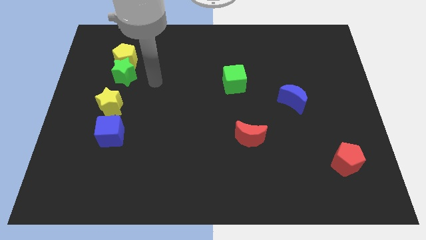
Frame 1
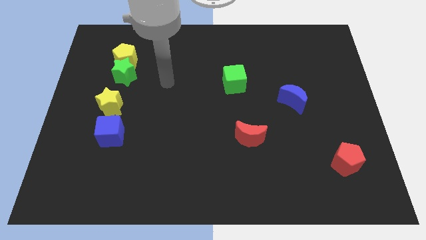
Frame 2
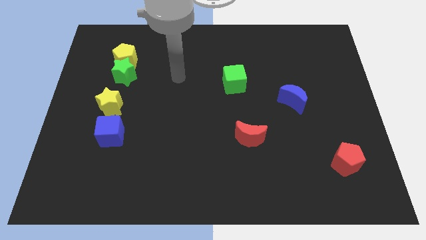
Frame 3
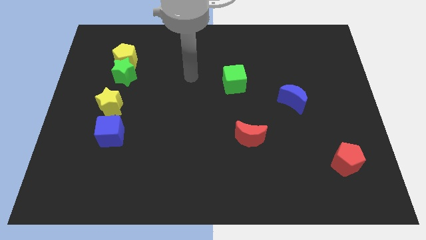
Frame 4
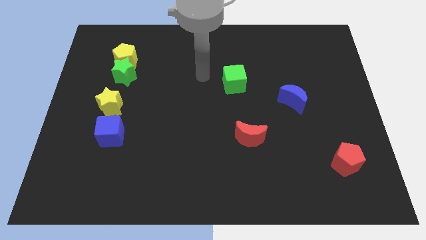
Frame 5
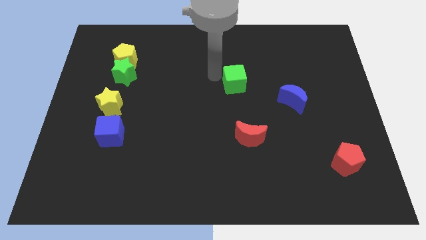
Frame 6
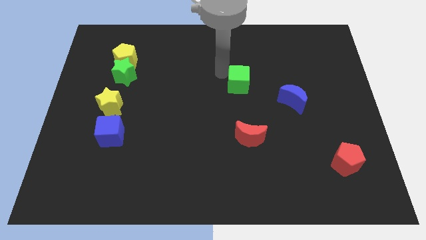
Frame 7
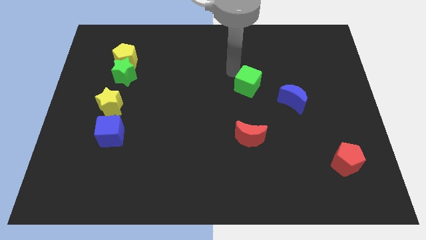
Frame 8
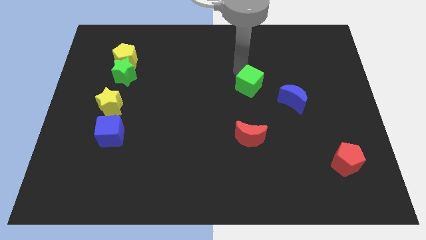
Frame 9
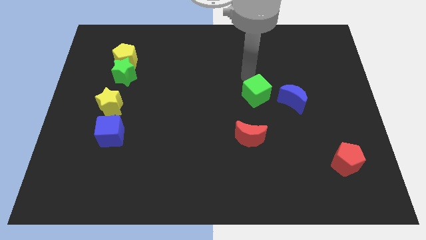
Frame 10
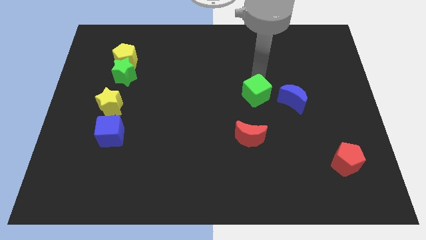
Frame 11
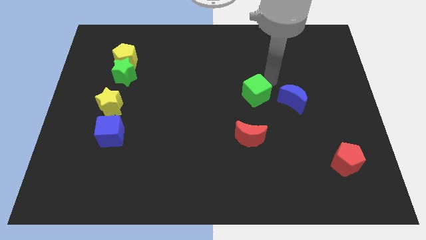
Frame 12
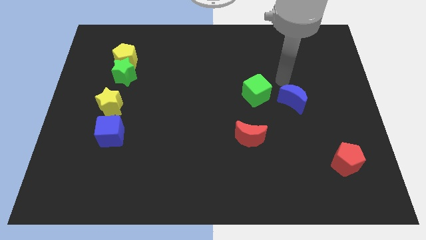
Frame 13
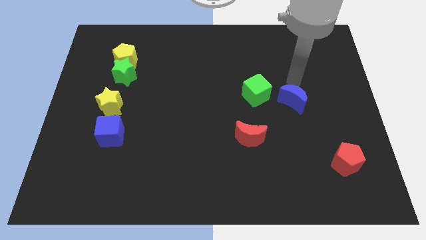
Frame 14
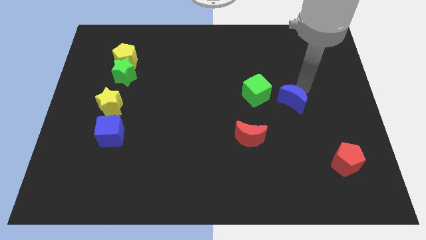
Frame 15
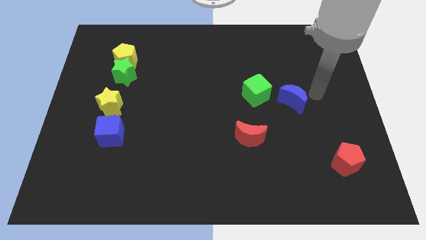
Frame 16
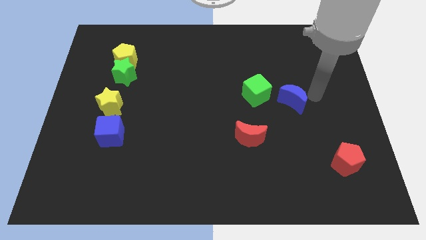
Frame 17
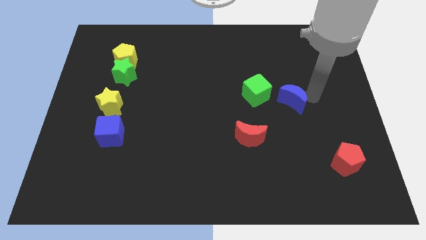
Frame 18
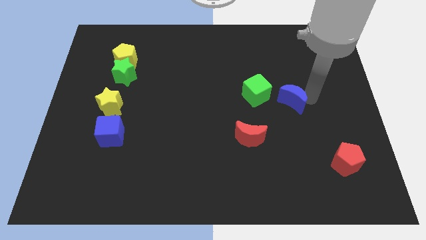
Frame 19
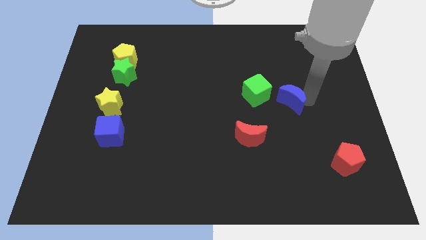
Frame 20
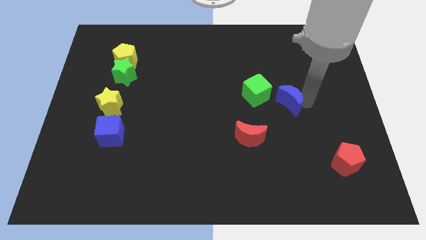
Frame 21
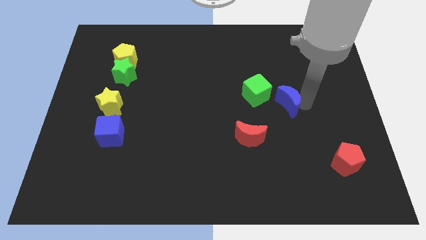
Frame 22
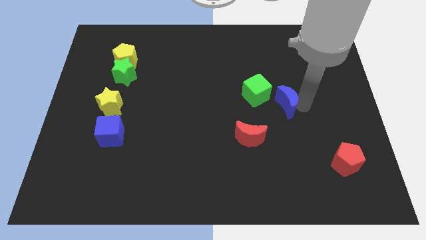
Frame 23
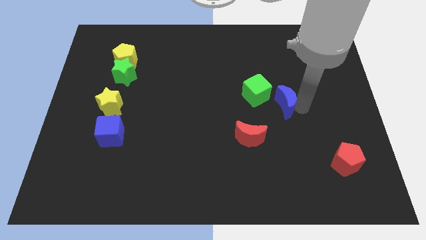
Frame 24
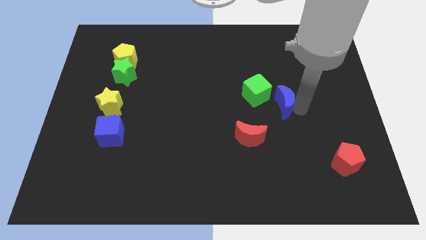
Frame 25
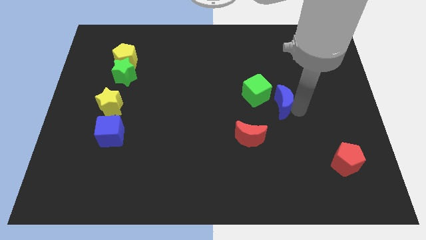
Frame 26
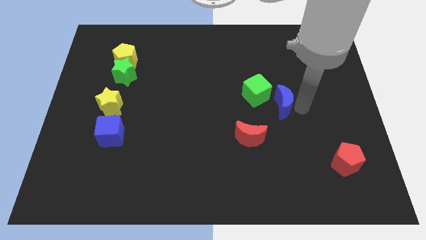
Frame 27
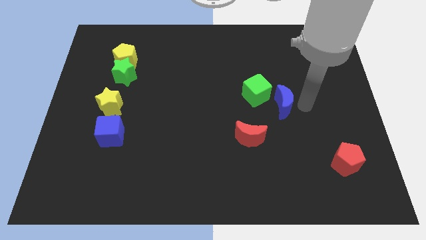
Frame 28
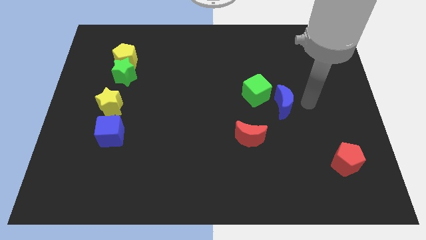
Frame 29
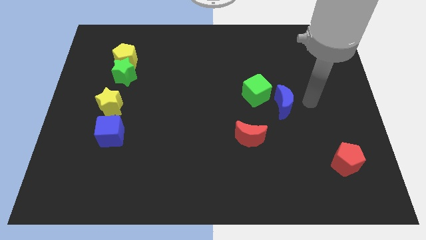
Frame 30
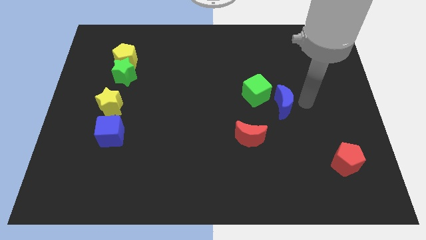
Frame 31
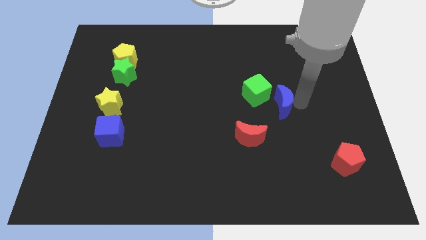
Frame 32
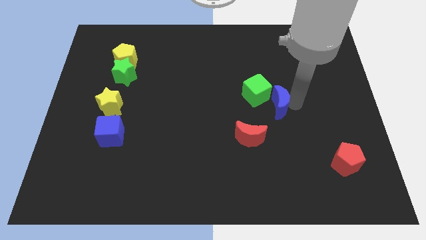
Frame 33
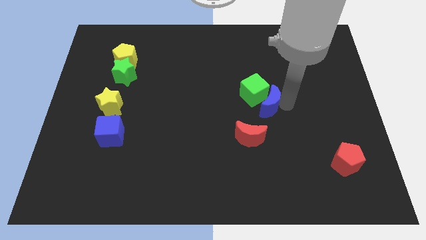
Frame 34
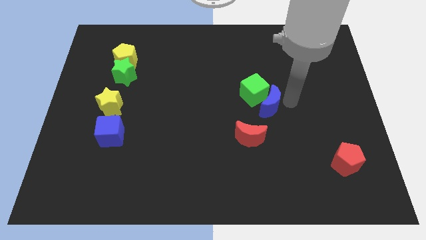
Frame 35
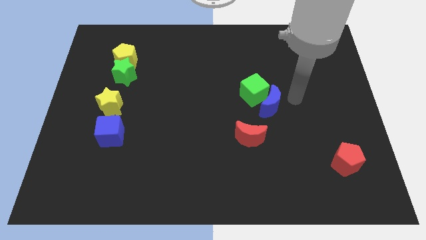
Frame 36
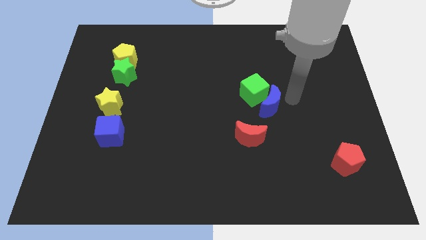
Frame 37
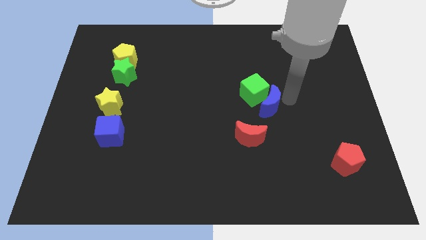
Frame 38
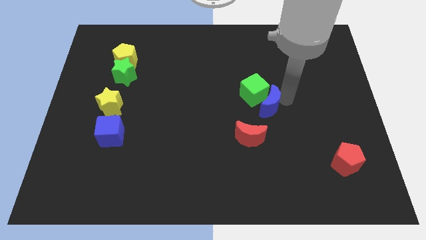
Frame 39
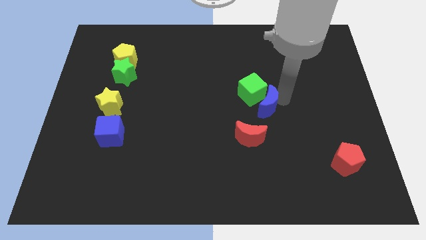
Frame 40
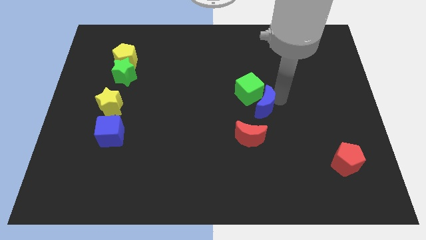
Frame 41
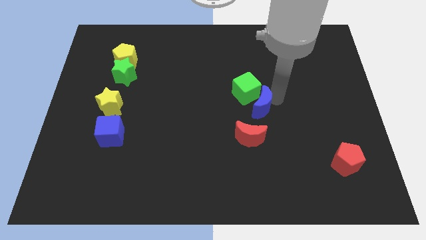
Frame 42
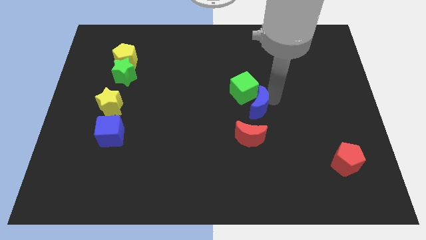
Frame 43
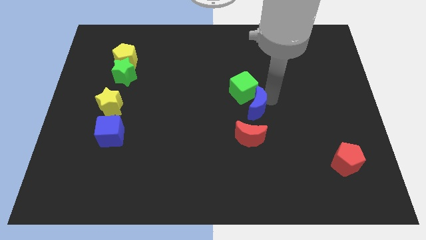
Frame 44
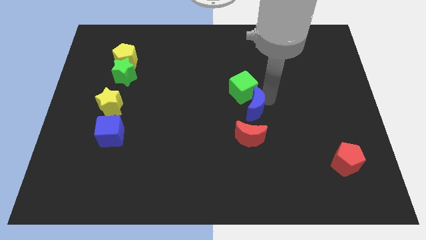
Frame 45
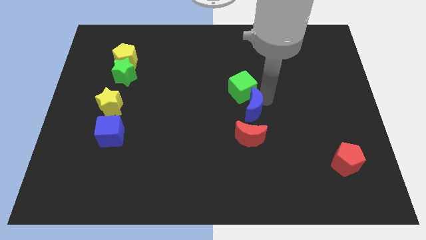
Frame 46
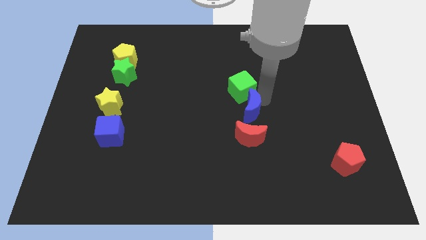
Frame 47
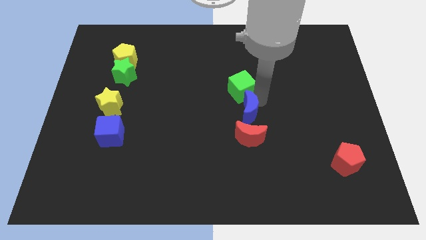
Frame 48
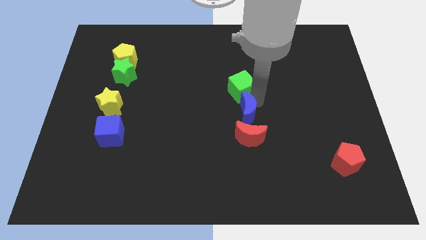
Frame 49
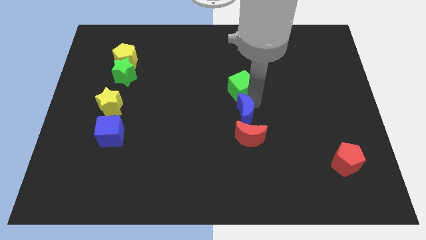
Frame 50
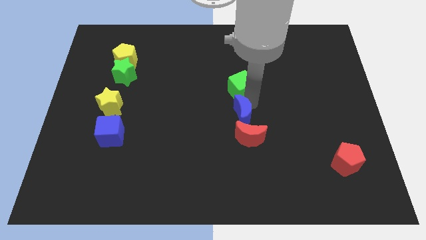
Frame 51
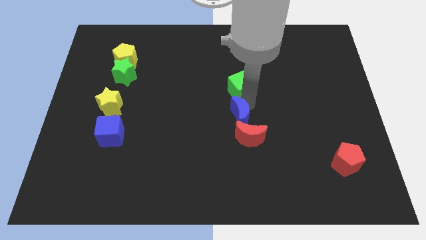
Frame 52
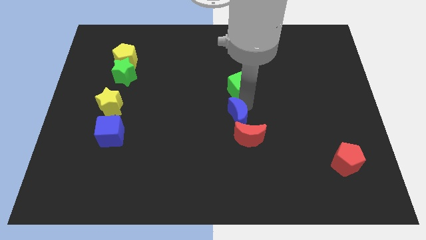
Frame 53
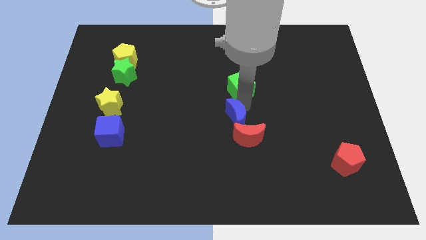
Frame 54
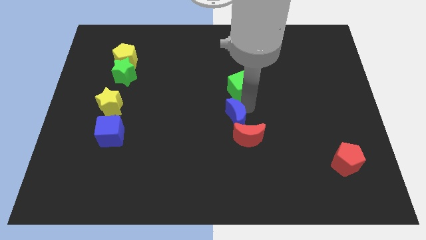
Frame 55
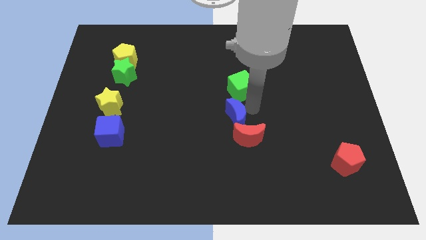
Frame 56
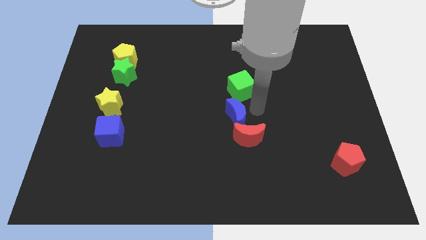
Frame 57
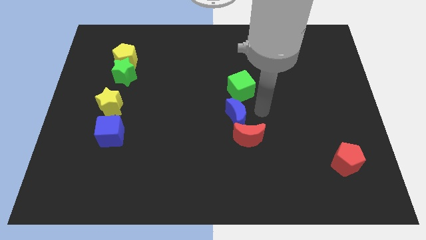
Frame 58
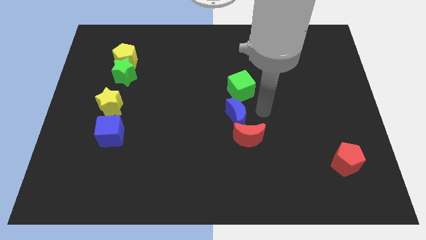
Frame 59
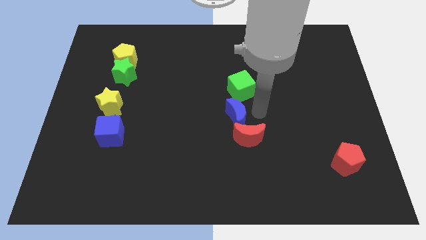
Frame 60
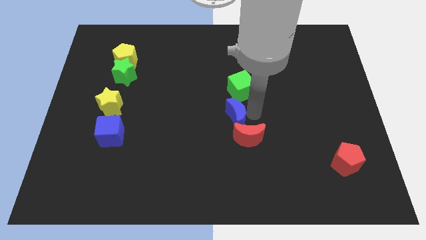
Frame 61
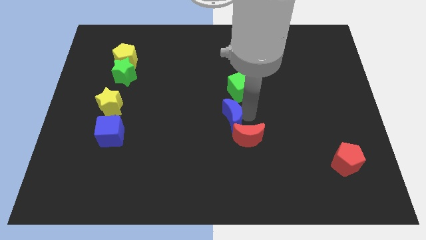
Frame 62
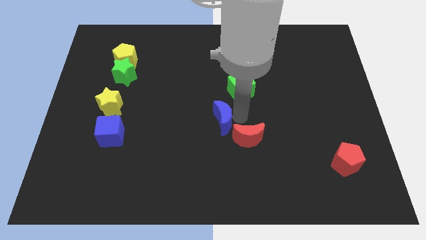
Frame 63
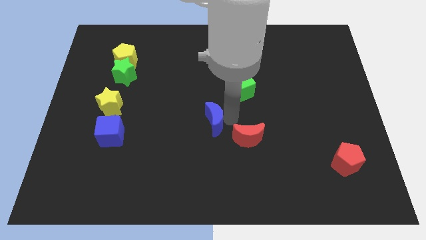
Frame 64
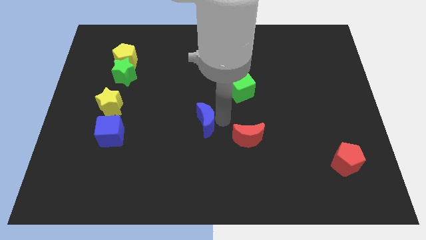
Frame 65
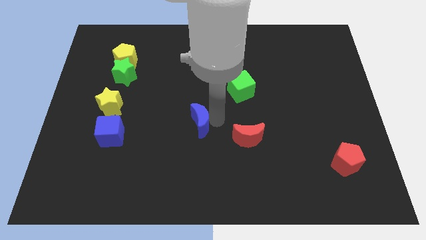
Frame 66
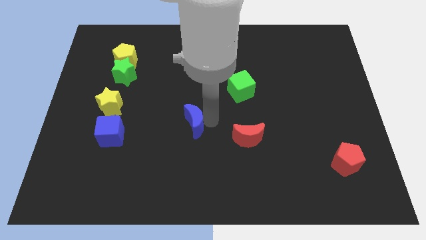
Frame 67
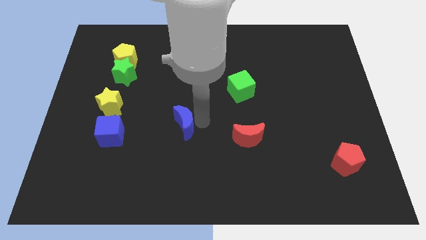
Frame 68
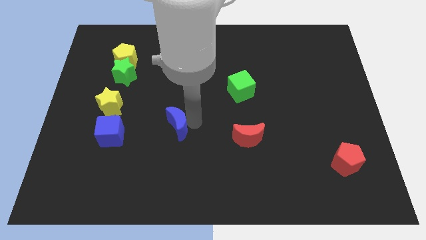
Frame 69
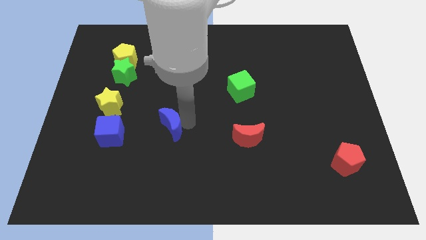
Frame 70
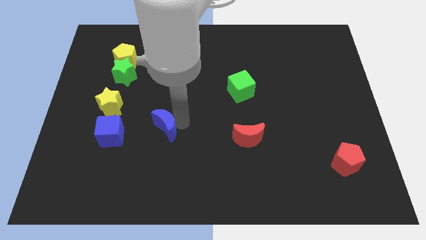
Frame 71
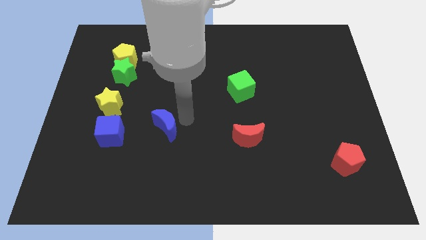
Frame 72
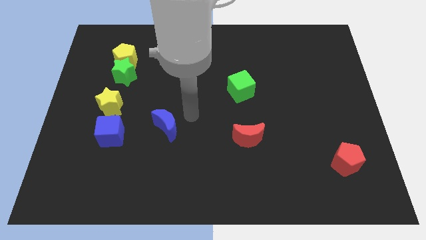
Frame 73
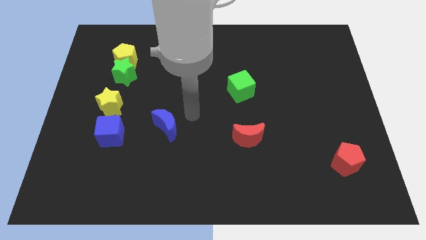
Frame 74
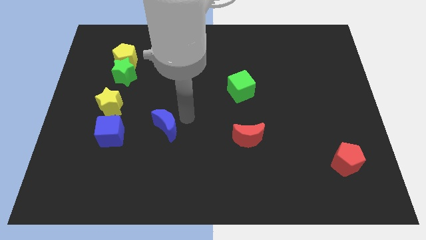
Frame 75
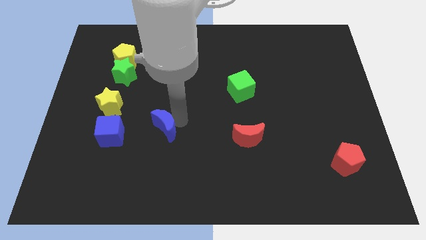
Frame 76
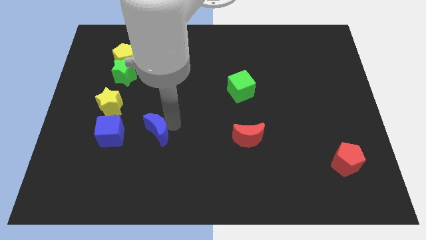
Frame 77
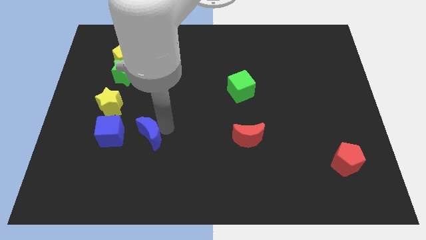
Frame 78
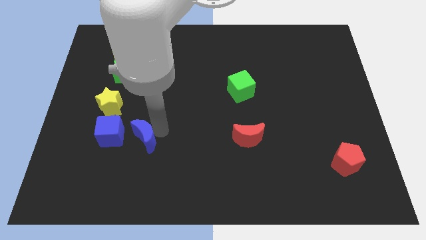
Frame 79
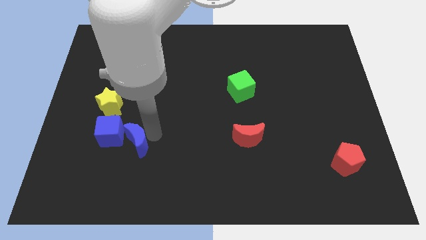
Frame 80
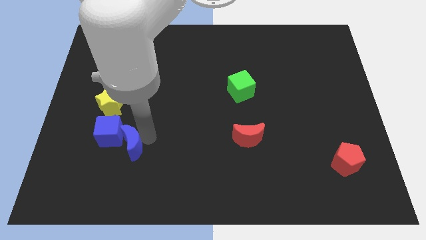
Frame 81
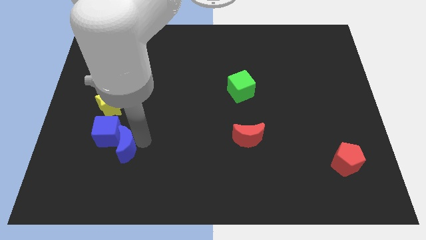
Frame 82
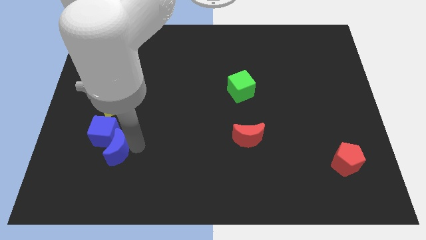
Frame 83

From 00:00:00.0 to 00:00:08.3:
slide the blue moon to the bottom side of the yellow star
